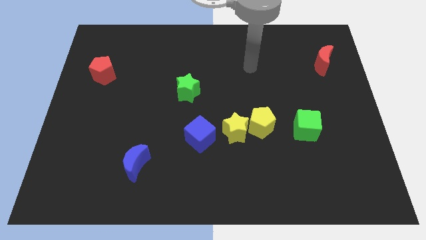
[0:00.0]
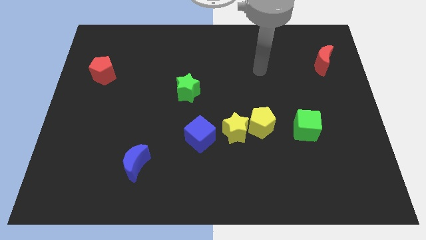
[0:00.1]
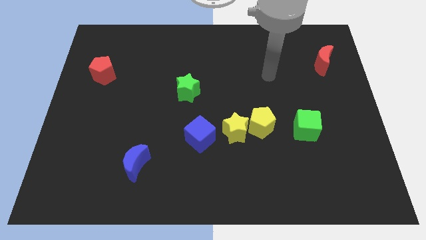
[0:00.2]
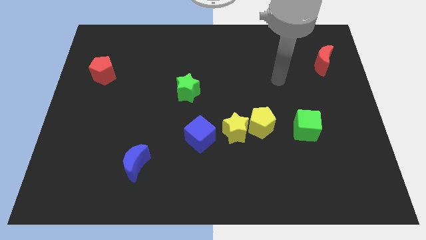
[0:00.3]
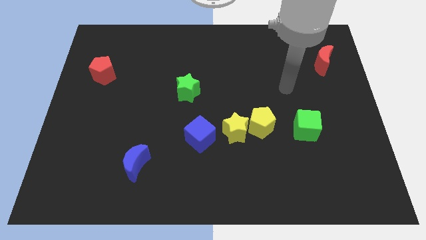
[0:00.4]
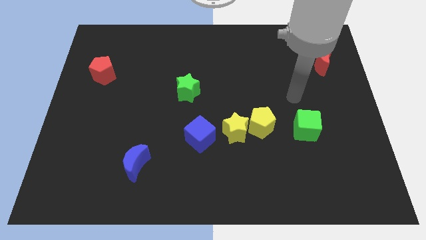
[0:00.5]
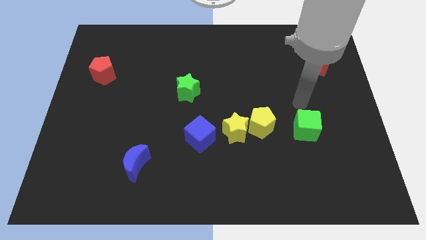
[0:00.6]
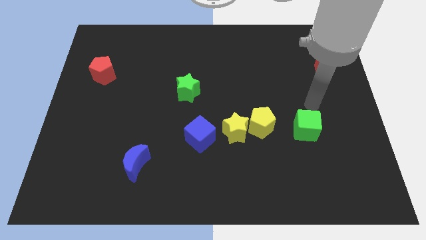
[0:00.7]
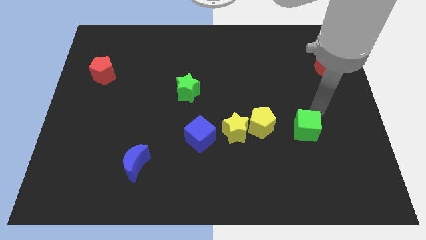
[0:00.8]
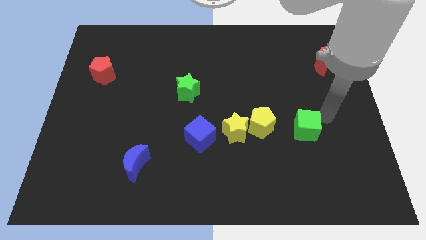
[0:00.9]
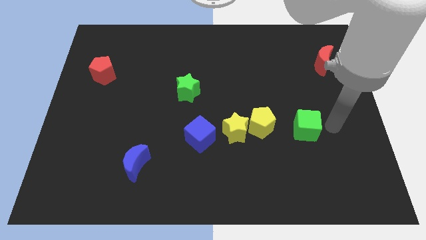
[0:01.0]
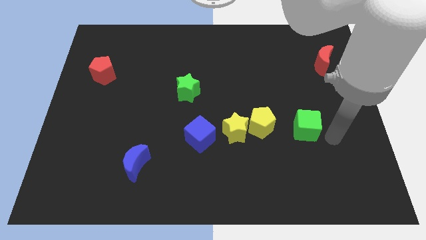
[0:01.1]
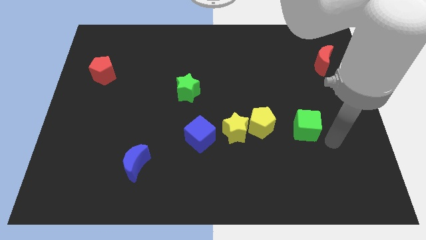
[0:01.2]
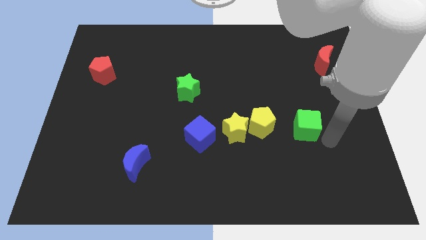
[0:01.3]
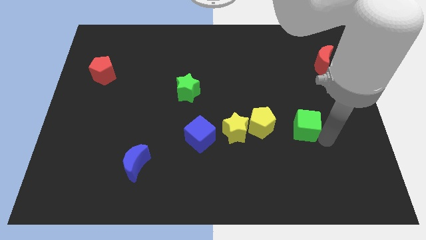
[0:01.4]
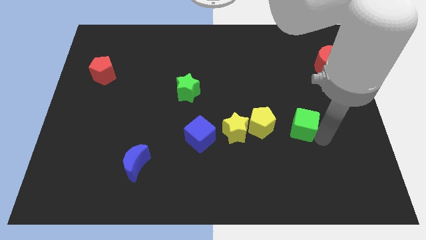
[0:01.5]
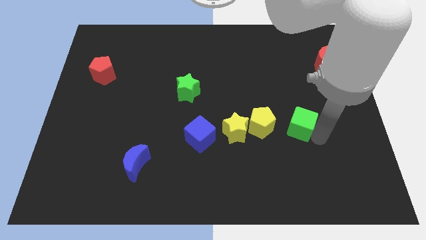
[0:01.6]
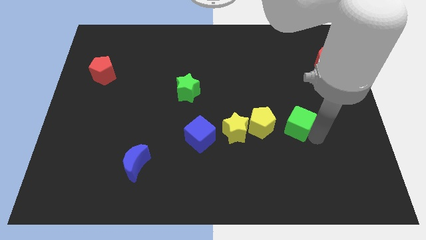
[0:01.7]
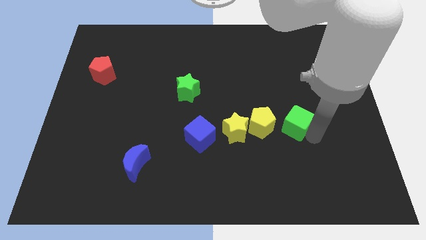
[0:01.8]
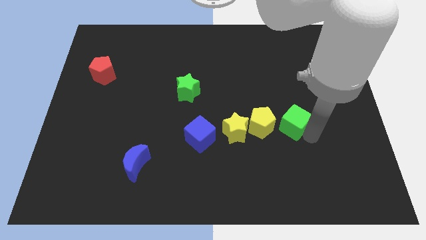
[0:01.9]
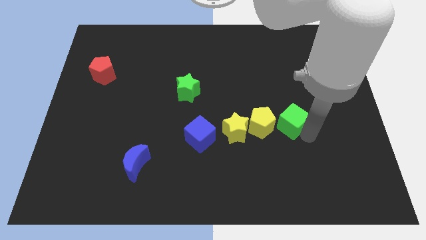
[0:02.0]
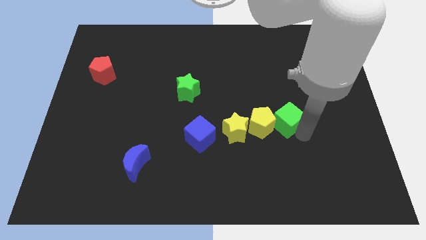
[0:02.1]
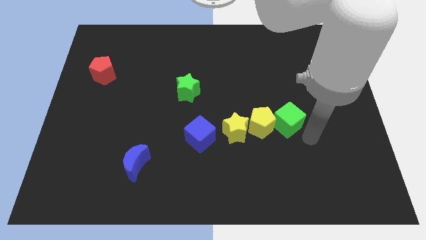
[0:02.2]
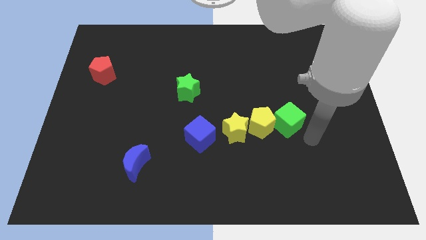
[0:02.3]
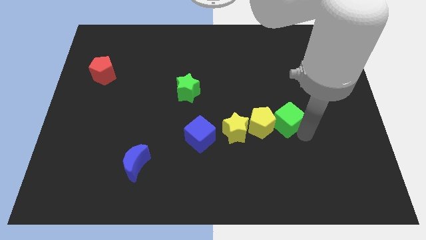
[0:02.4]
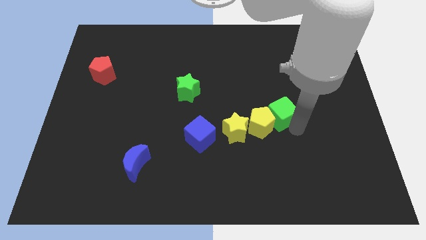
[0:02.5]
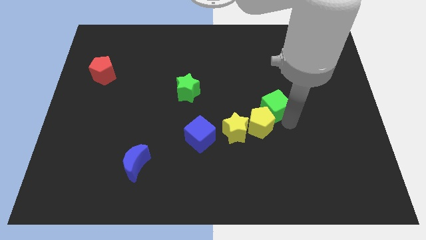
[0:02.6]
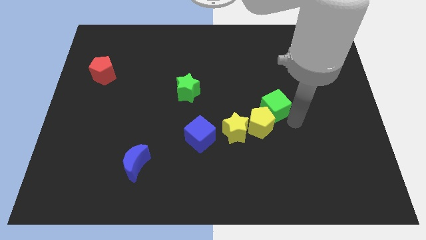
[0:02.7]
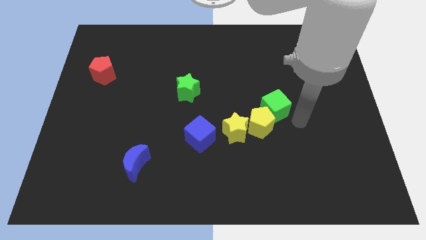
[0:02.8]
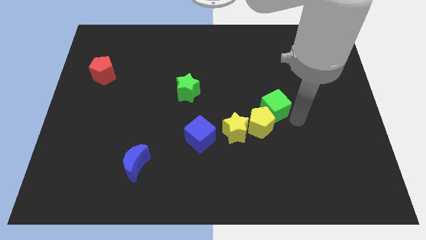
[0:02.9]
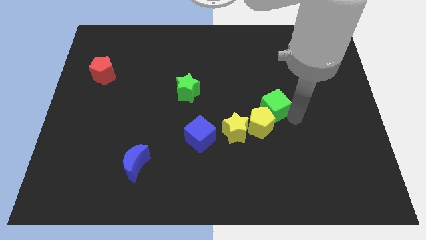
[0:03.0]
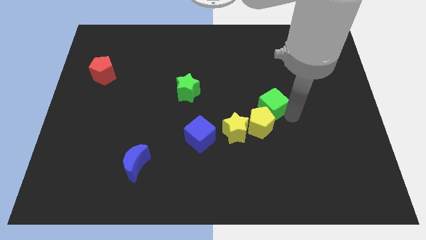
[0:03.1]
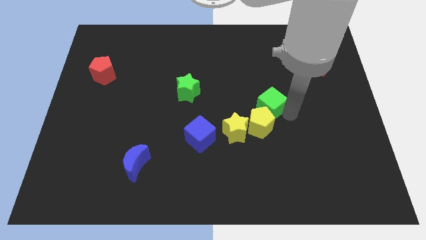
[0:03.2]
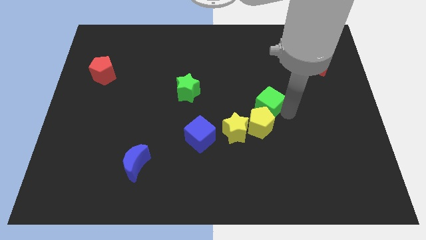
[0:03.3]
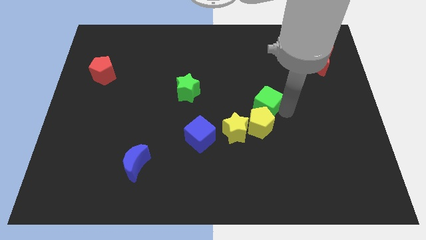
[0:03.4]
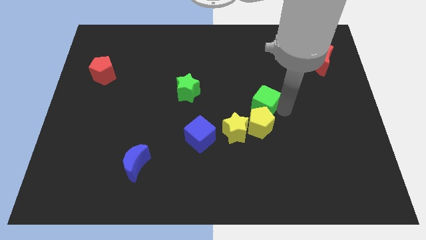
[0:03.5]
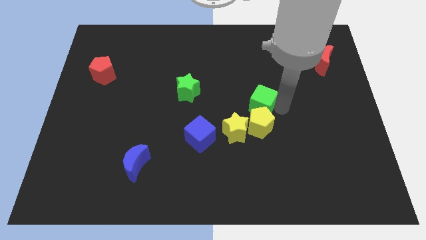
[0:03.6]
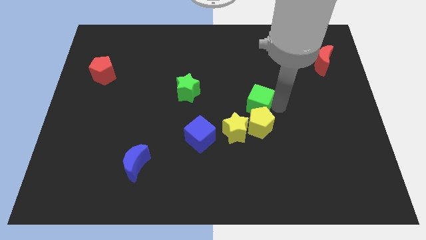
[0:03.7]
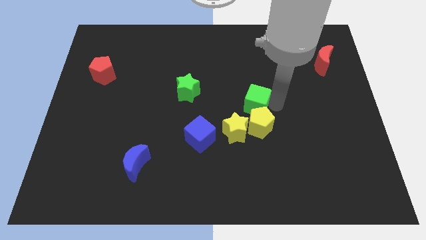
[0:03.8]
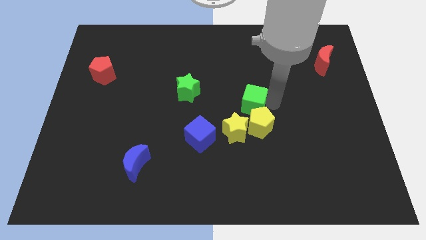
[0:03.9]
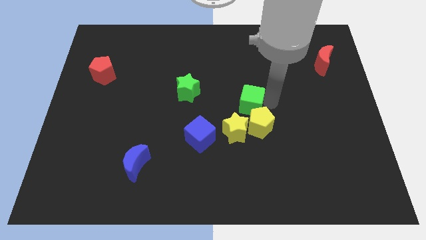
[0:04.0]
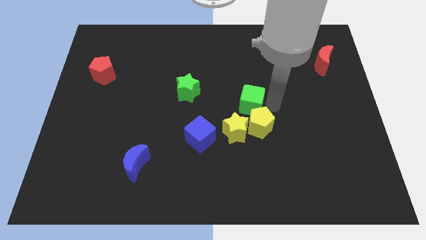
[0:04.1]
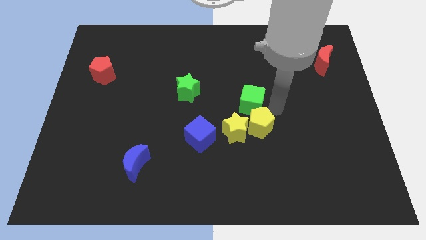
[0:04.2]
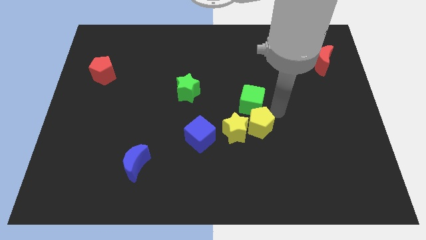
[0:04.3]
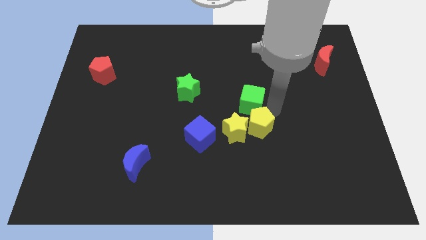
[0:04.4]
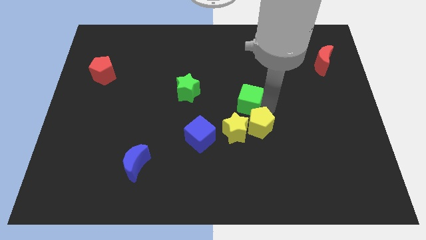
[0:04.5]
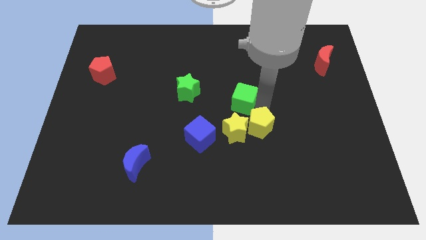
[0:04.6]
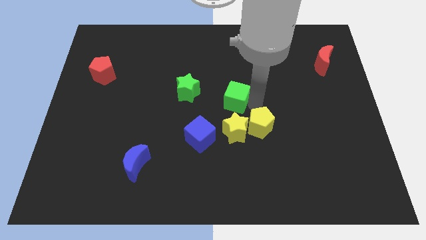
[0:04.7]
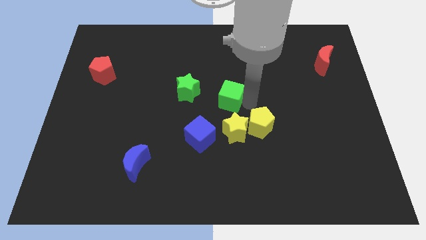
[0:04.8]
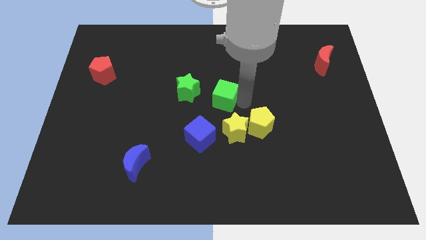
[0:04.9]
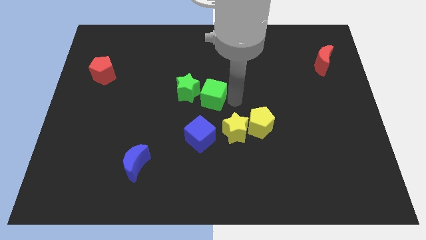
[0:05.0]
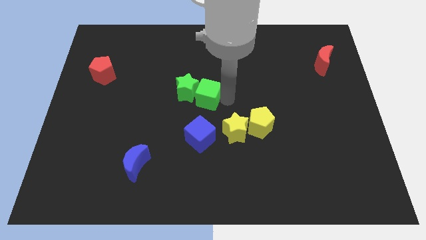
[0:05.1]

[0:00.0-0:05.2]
move the green cube towards the green star

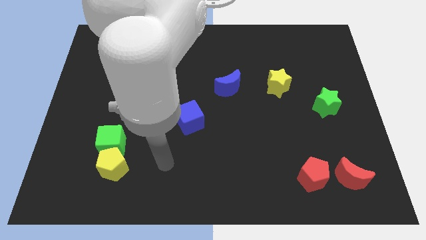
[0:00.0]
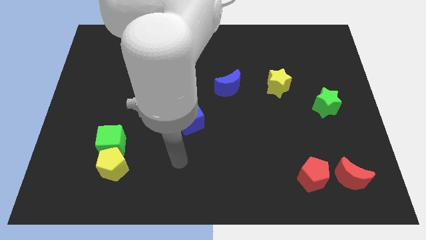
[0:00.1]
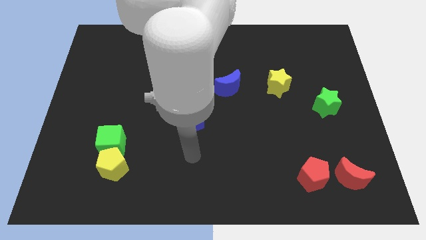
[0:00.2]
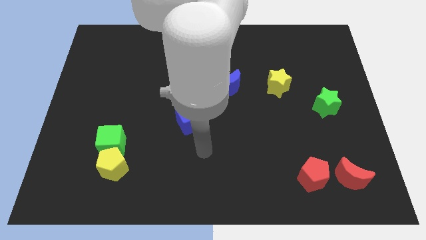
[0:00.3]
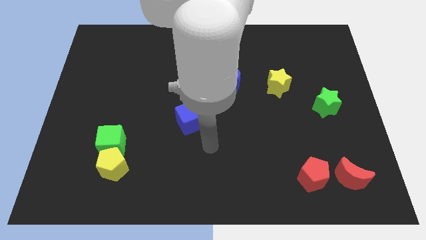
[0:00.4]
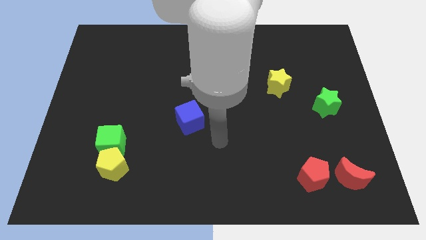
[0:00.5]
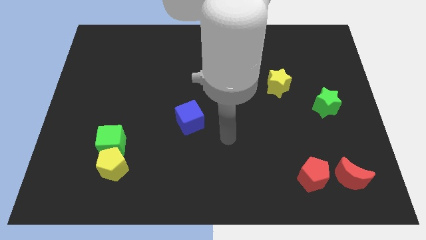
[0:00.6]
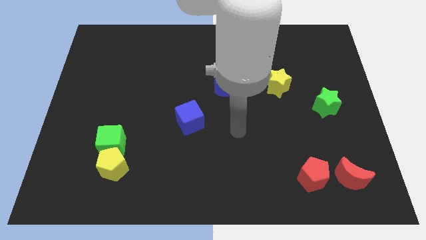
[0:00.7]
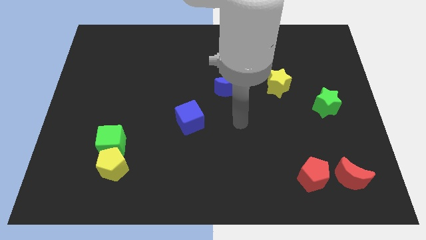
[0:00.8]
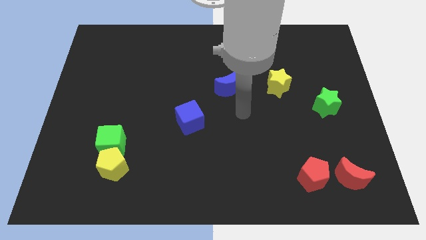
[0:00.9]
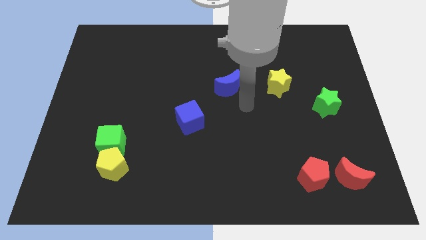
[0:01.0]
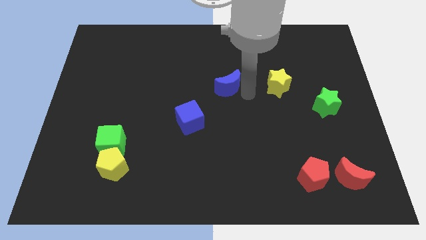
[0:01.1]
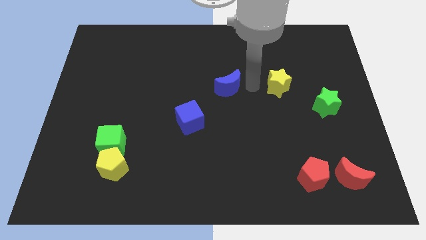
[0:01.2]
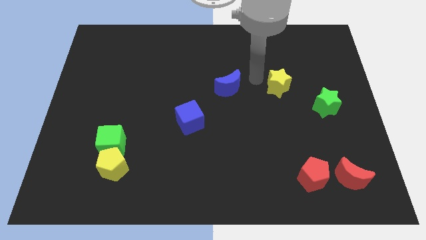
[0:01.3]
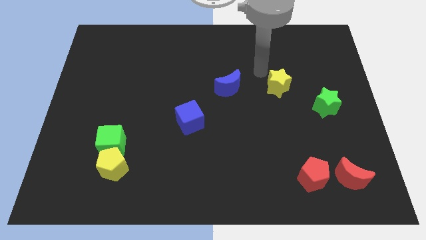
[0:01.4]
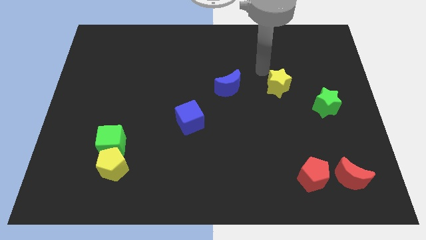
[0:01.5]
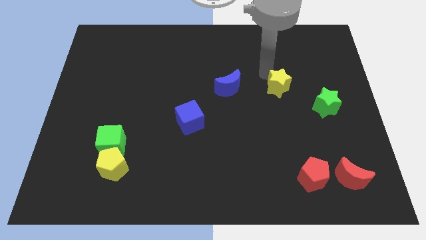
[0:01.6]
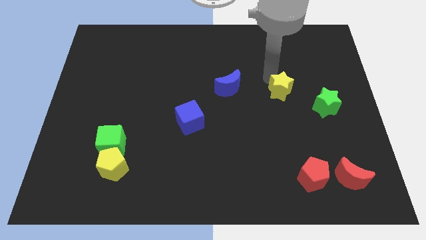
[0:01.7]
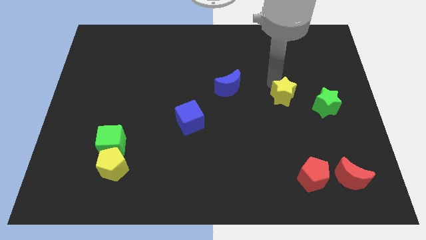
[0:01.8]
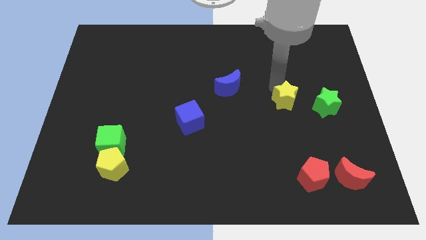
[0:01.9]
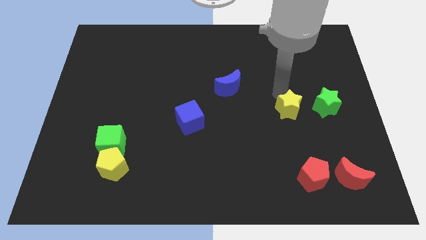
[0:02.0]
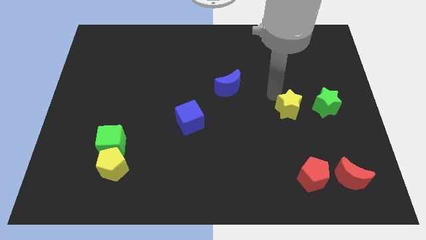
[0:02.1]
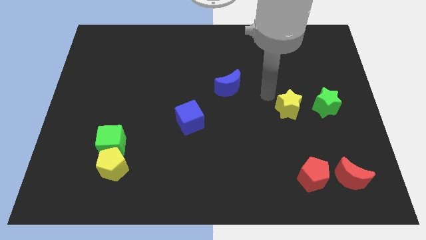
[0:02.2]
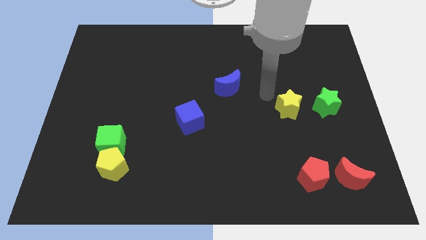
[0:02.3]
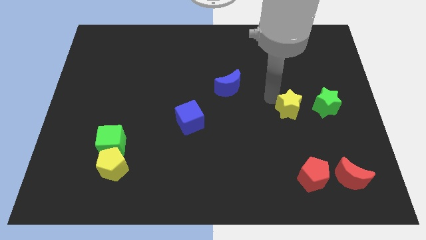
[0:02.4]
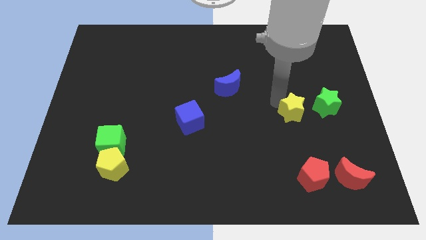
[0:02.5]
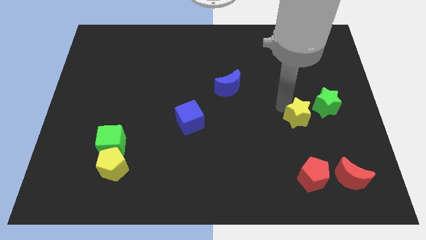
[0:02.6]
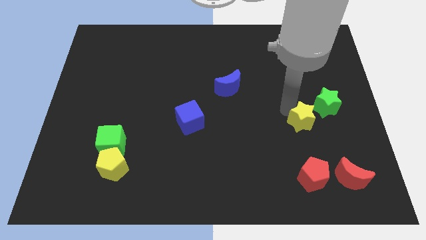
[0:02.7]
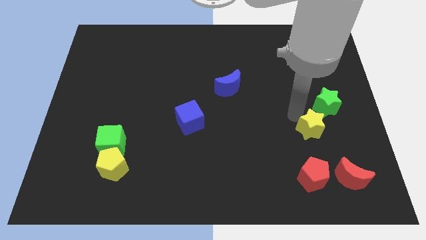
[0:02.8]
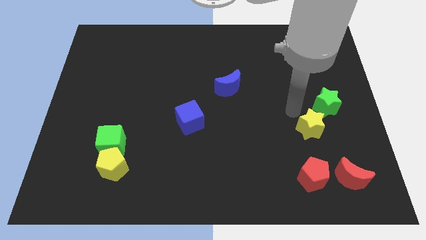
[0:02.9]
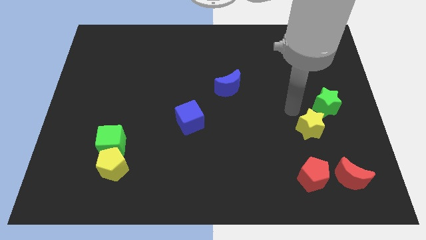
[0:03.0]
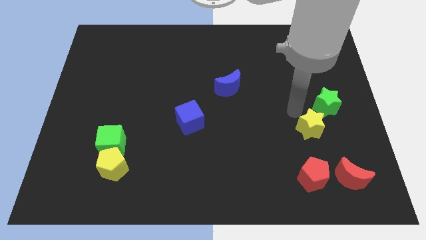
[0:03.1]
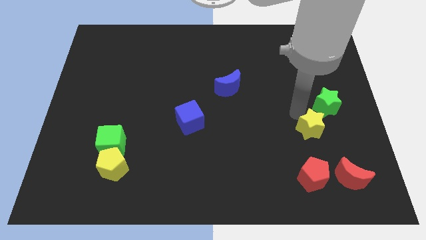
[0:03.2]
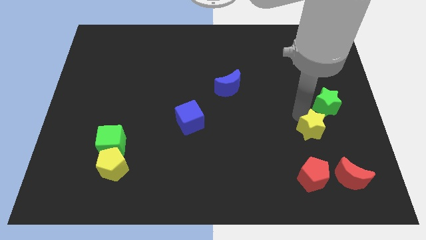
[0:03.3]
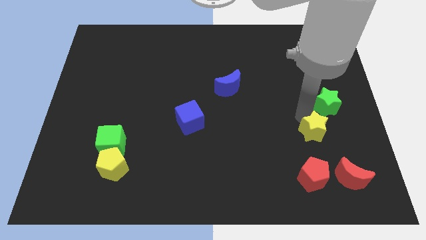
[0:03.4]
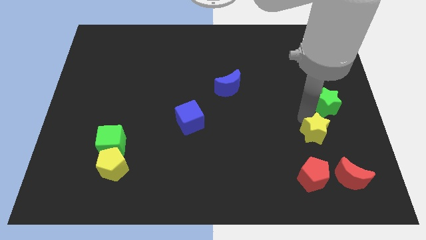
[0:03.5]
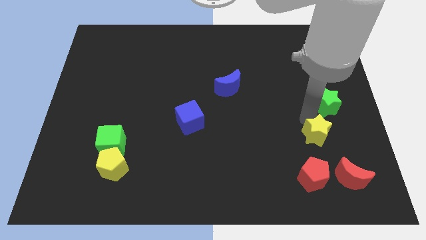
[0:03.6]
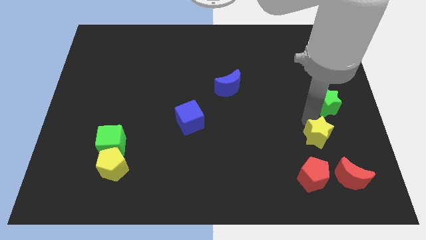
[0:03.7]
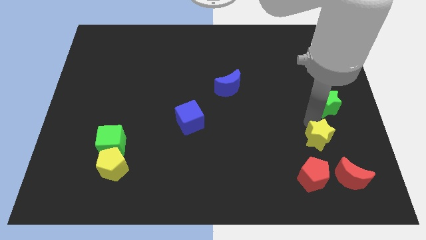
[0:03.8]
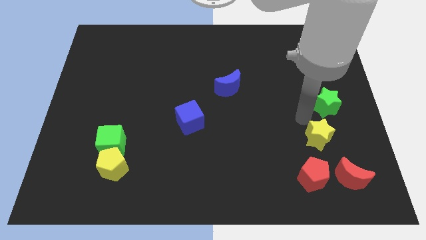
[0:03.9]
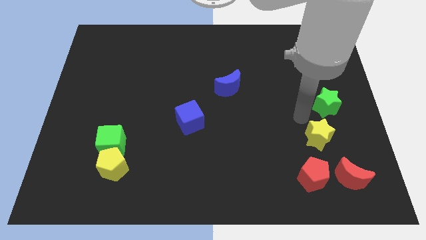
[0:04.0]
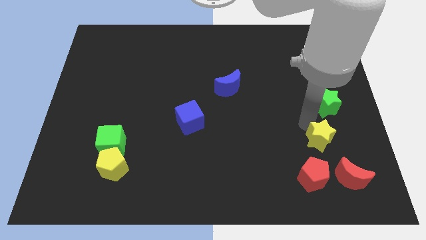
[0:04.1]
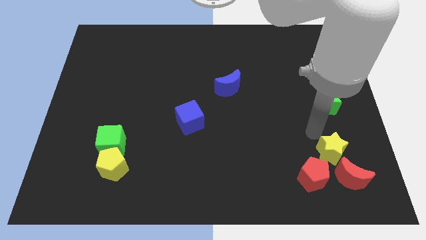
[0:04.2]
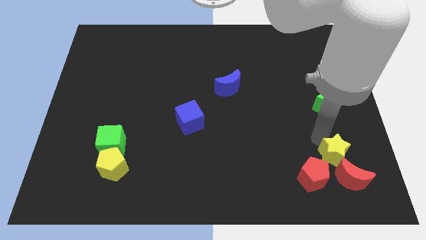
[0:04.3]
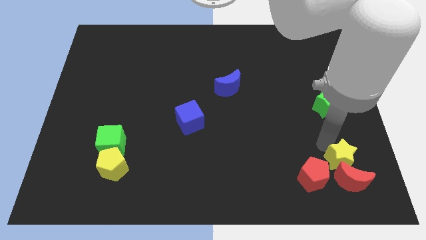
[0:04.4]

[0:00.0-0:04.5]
slide the yellow star to the red moon
